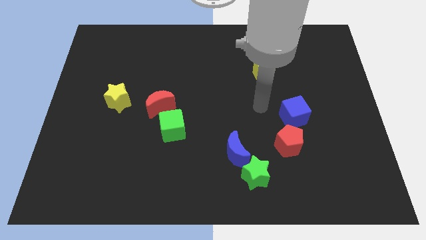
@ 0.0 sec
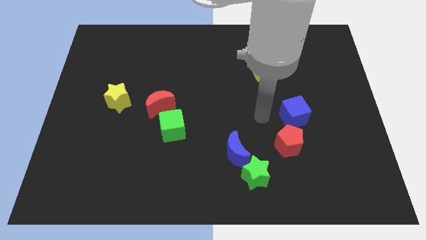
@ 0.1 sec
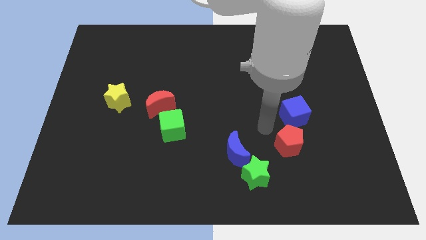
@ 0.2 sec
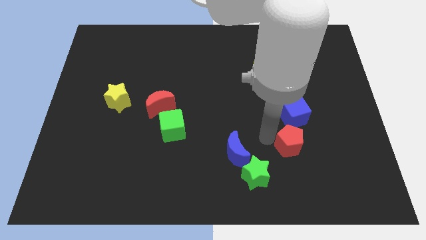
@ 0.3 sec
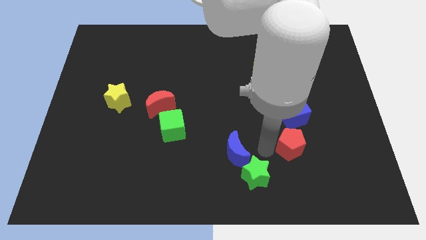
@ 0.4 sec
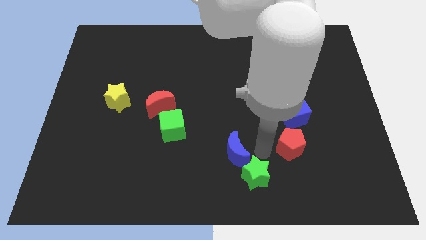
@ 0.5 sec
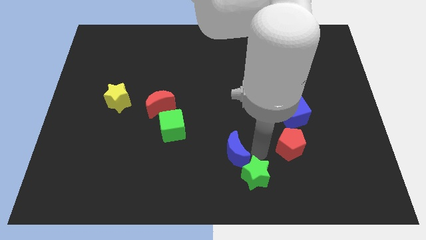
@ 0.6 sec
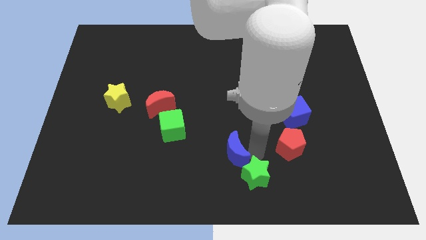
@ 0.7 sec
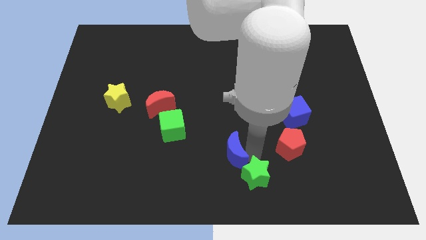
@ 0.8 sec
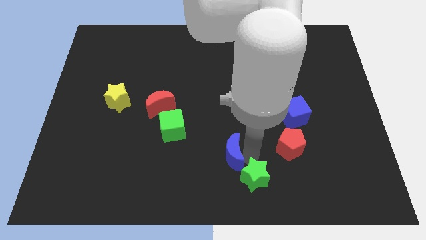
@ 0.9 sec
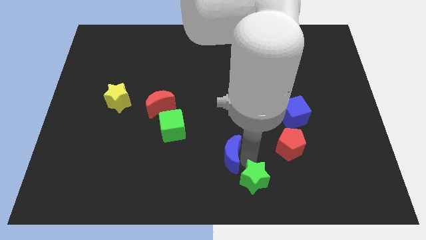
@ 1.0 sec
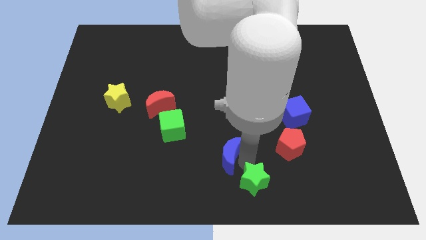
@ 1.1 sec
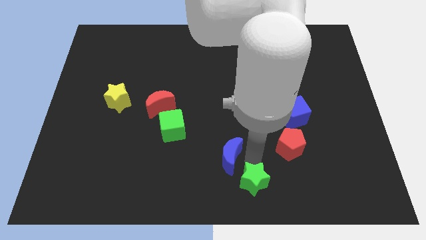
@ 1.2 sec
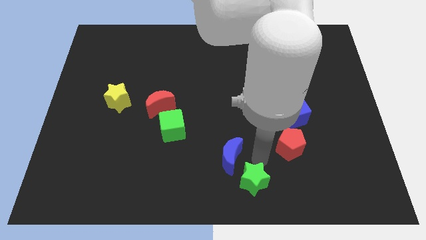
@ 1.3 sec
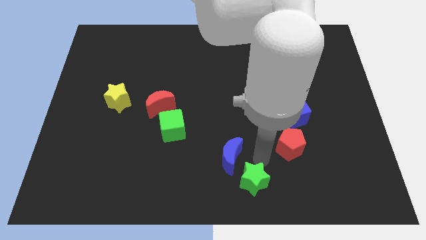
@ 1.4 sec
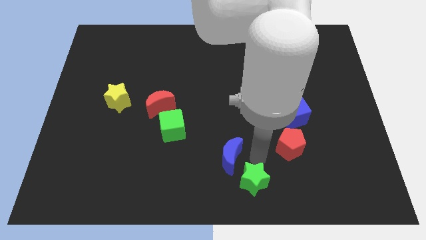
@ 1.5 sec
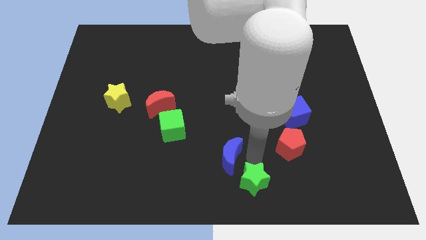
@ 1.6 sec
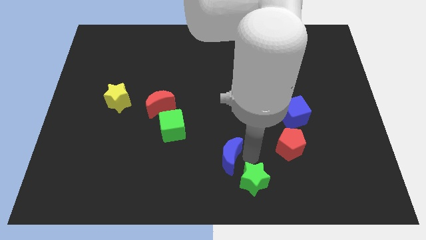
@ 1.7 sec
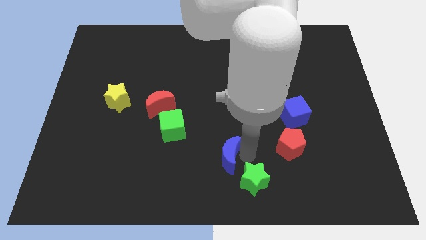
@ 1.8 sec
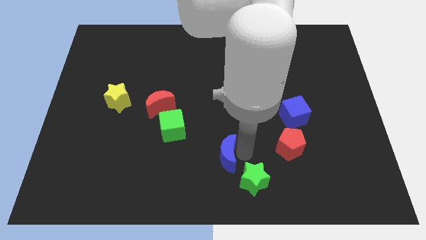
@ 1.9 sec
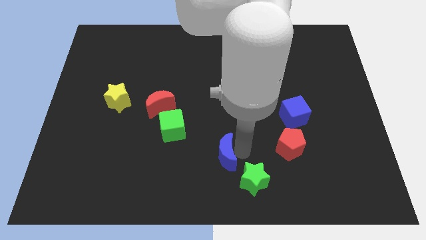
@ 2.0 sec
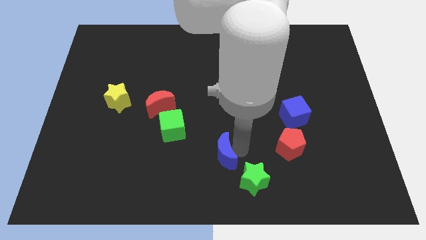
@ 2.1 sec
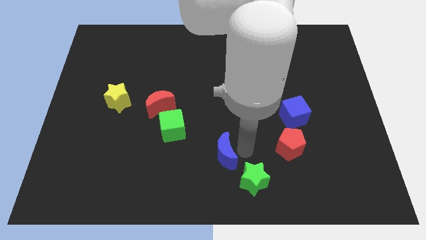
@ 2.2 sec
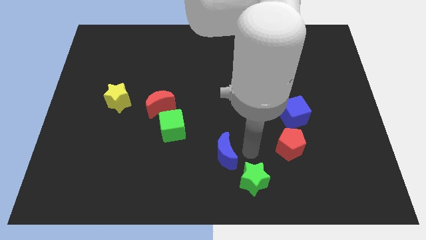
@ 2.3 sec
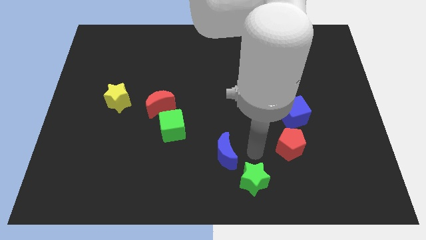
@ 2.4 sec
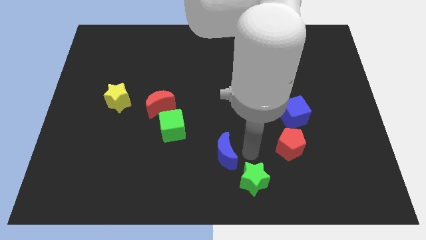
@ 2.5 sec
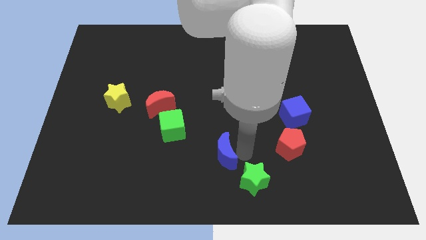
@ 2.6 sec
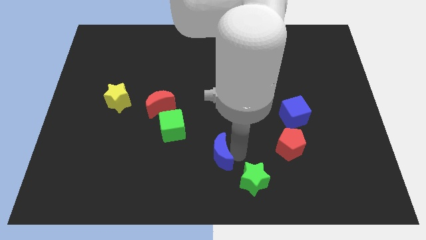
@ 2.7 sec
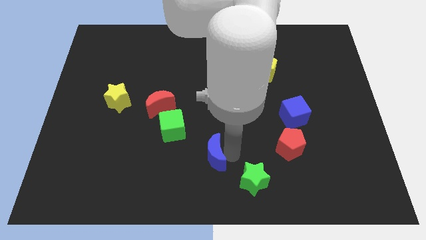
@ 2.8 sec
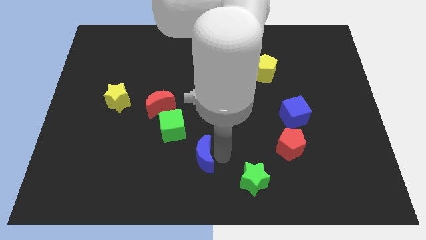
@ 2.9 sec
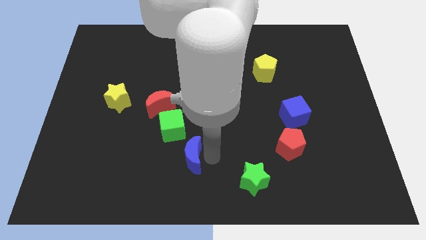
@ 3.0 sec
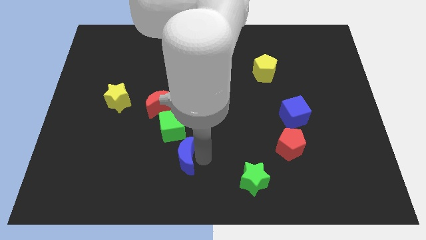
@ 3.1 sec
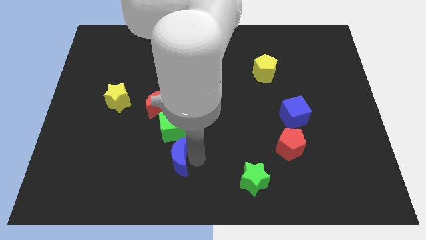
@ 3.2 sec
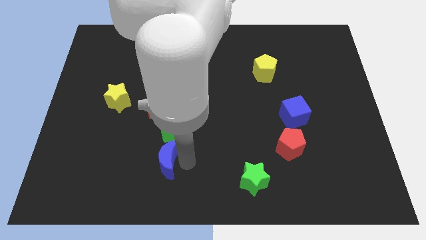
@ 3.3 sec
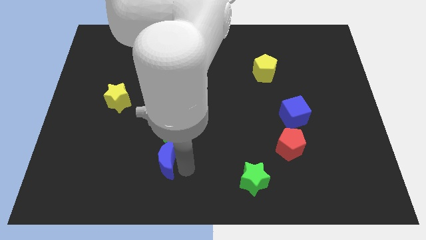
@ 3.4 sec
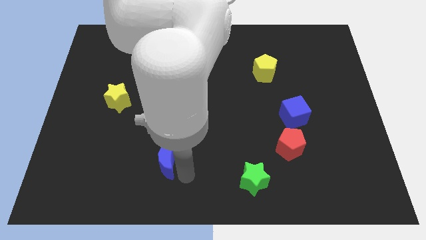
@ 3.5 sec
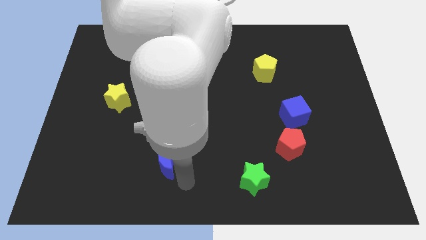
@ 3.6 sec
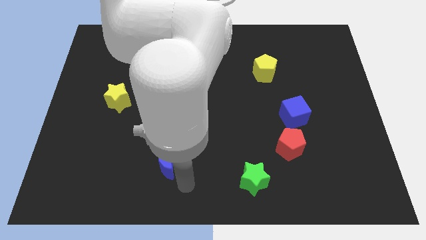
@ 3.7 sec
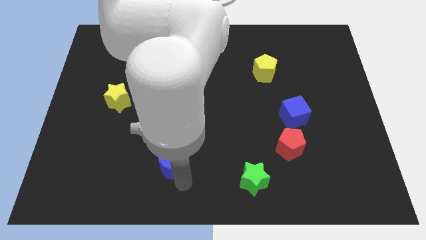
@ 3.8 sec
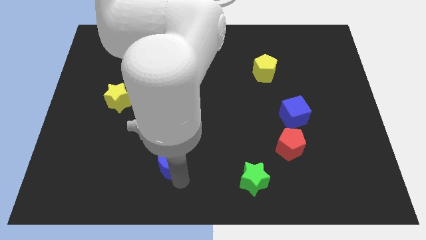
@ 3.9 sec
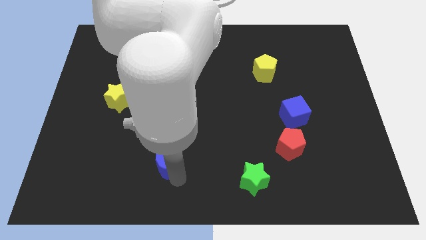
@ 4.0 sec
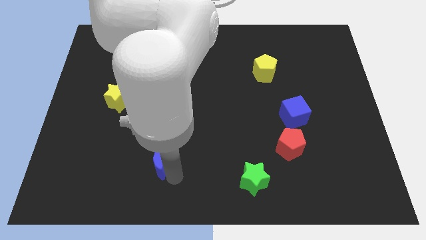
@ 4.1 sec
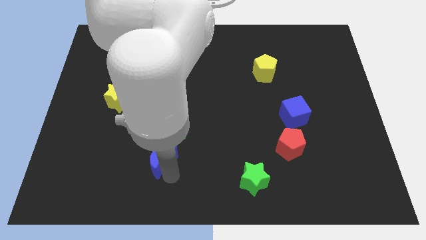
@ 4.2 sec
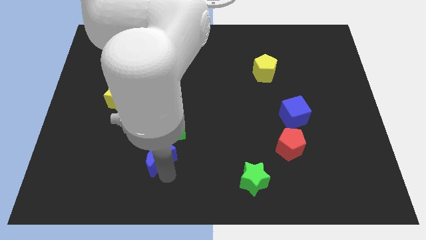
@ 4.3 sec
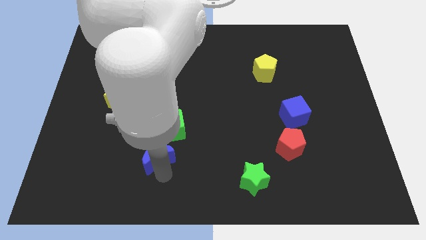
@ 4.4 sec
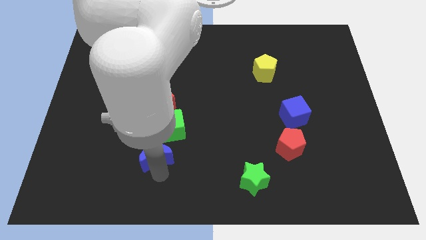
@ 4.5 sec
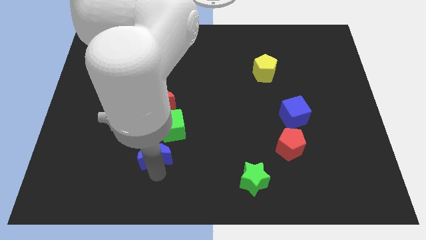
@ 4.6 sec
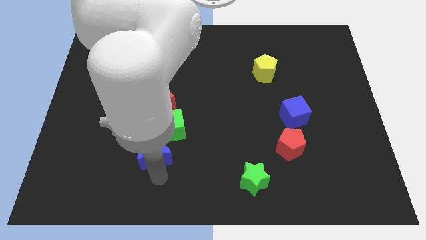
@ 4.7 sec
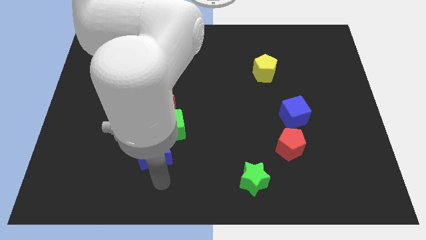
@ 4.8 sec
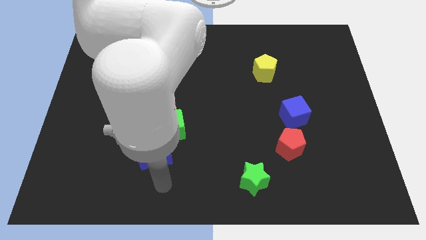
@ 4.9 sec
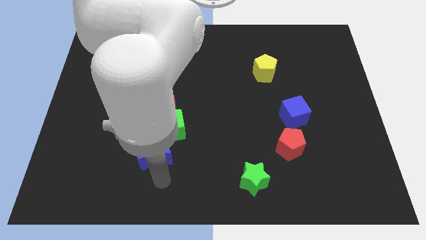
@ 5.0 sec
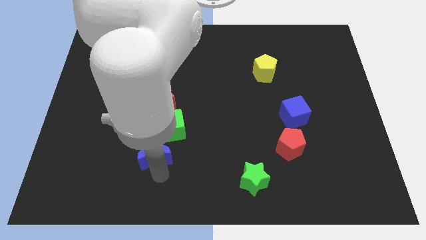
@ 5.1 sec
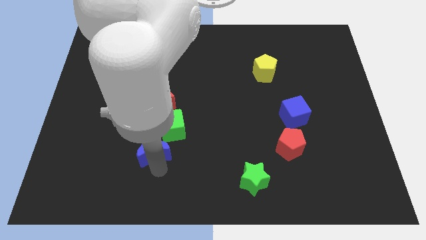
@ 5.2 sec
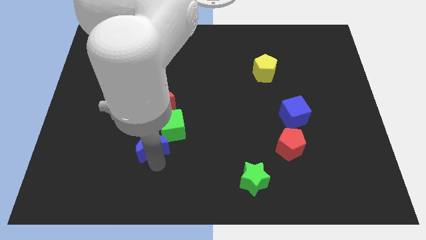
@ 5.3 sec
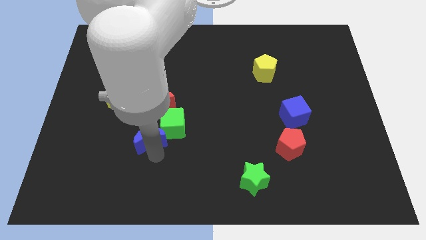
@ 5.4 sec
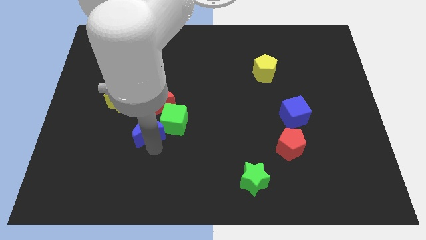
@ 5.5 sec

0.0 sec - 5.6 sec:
move the blue moon diagonally down and to the left of the red moon

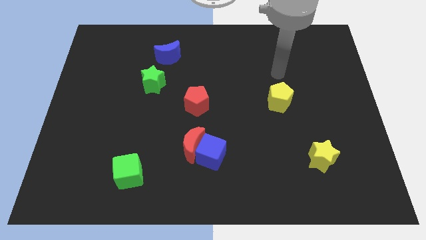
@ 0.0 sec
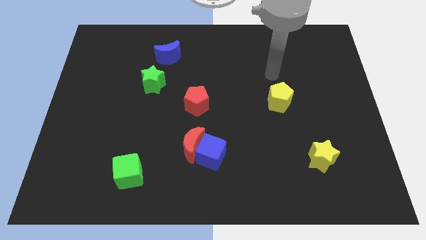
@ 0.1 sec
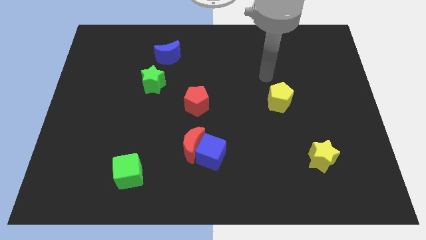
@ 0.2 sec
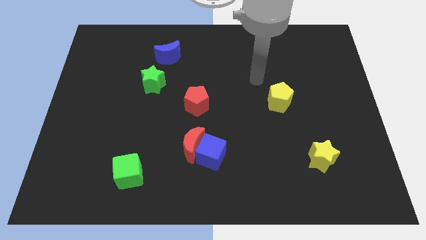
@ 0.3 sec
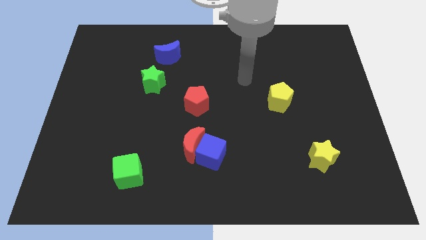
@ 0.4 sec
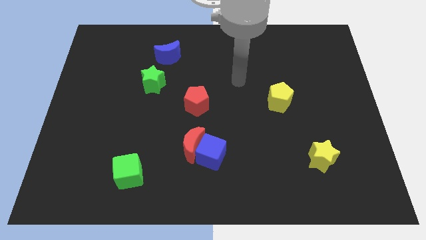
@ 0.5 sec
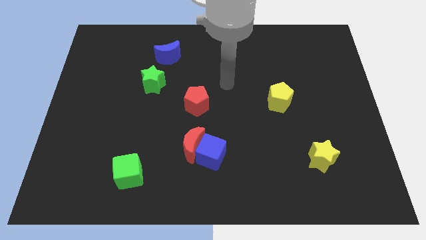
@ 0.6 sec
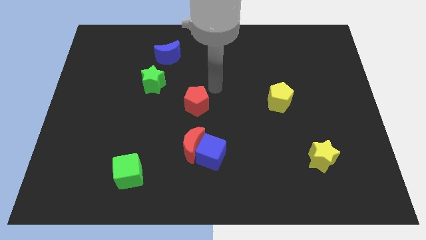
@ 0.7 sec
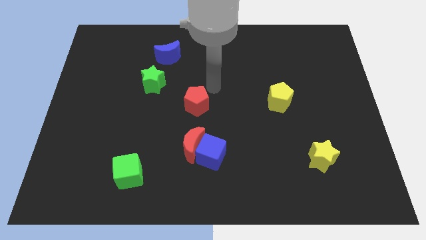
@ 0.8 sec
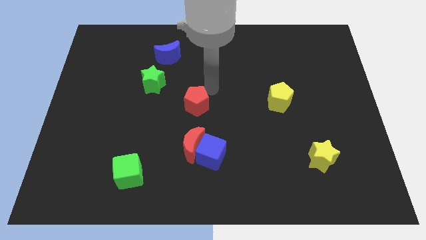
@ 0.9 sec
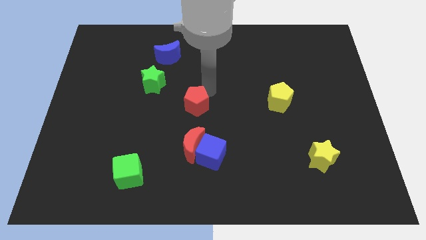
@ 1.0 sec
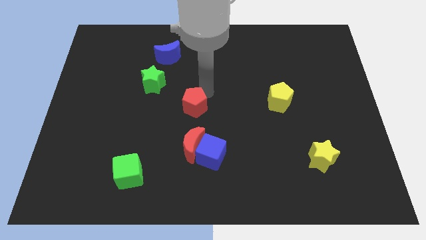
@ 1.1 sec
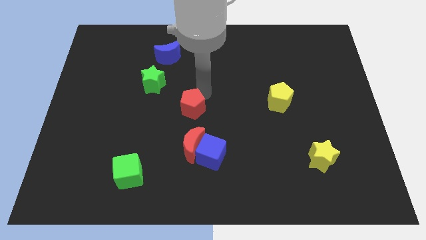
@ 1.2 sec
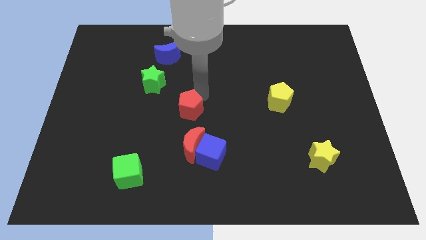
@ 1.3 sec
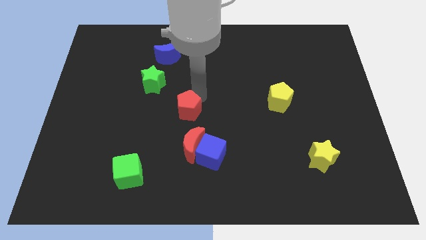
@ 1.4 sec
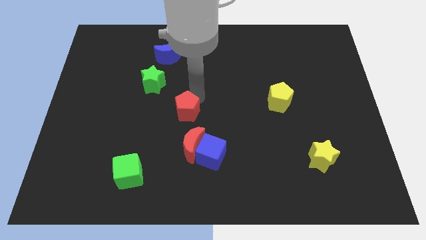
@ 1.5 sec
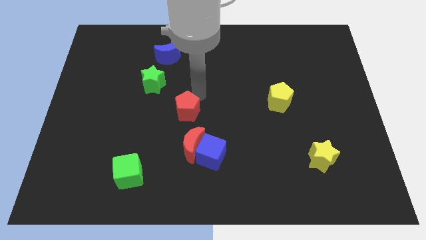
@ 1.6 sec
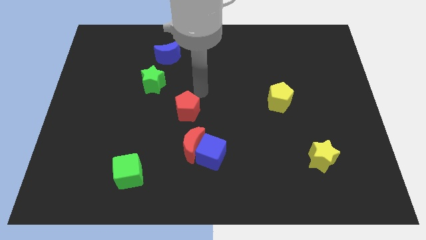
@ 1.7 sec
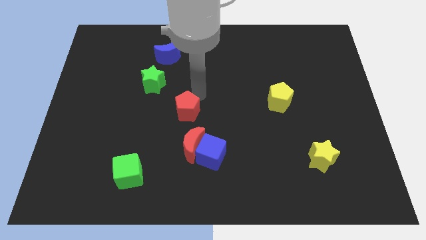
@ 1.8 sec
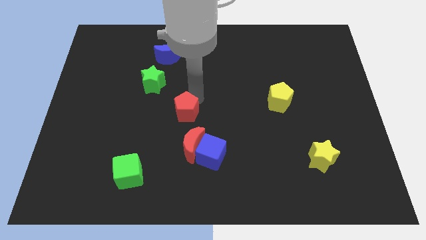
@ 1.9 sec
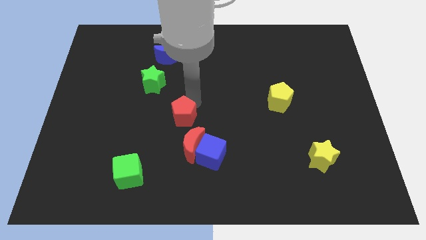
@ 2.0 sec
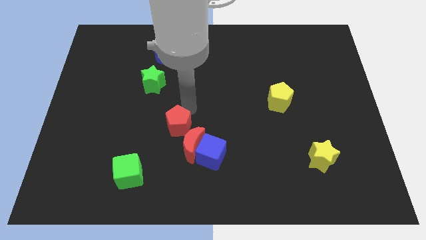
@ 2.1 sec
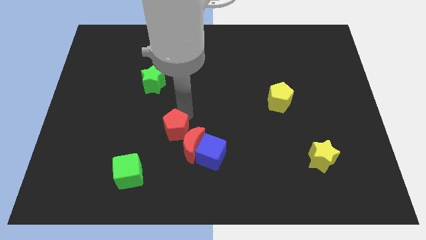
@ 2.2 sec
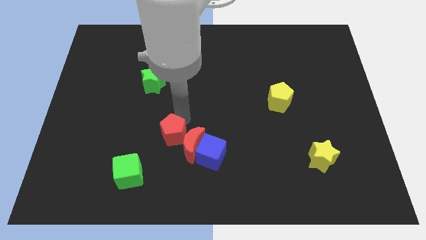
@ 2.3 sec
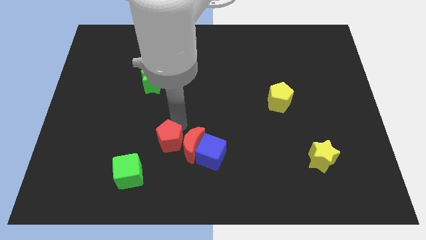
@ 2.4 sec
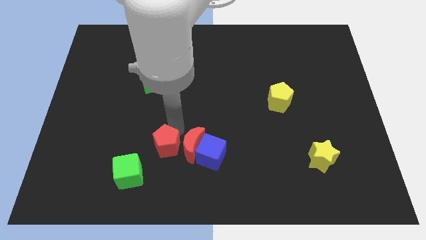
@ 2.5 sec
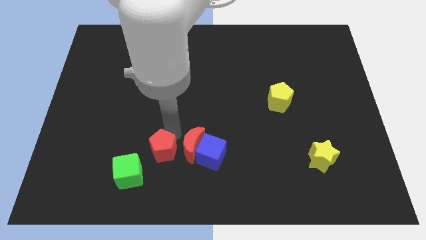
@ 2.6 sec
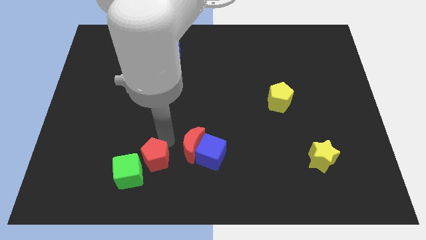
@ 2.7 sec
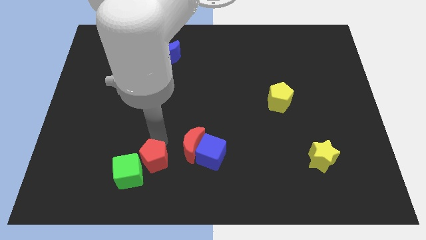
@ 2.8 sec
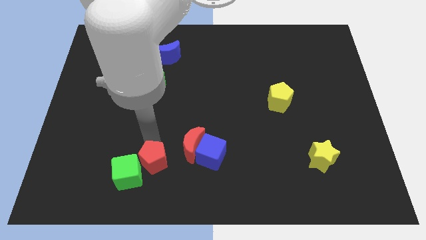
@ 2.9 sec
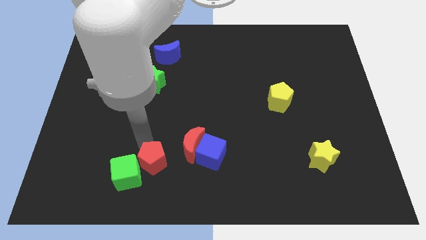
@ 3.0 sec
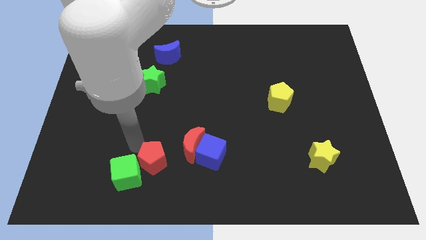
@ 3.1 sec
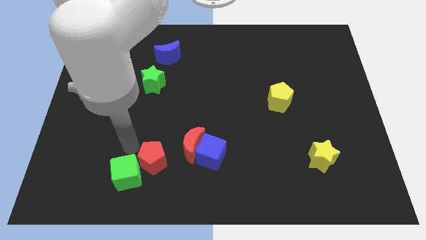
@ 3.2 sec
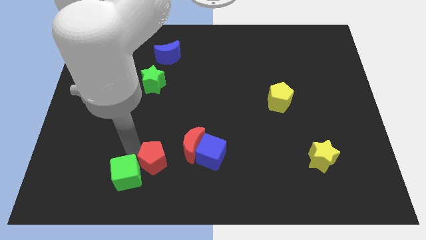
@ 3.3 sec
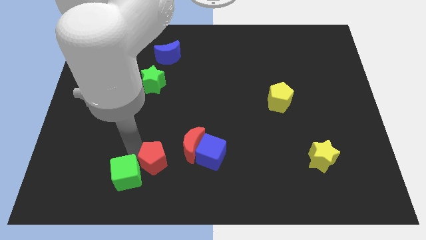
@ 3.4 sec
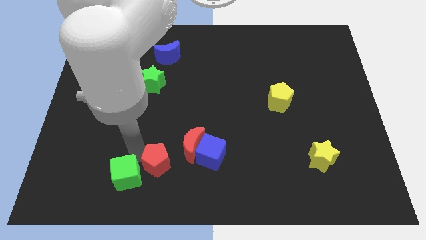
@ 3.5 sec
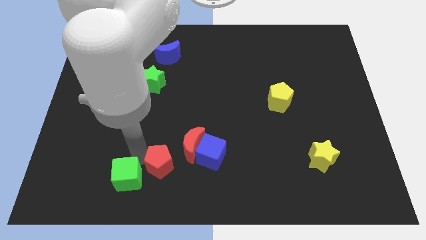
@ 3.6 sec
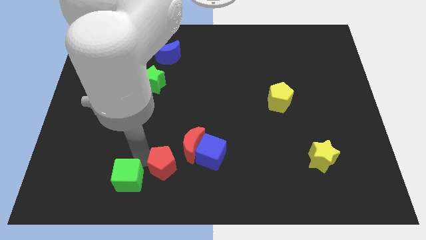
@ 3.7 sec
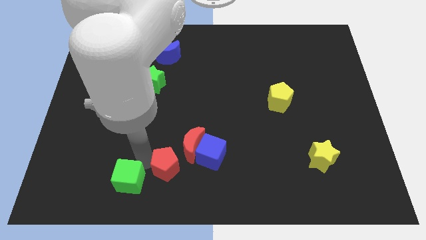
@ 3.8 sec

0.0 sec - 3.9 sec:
put the red pentagon to the bottom left side of the blue cube
